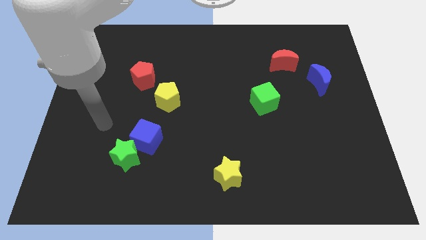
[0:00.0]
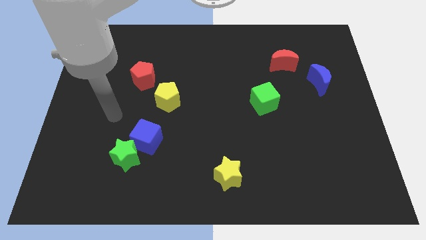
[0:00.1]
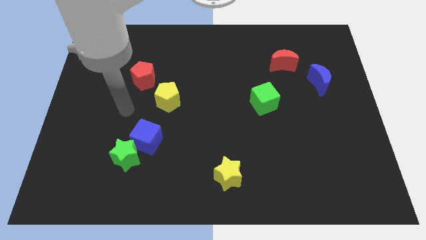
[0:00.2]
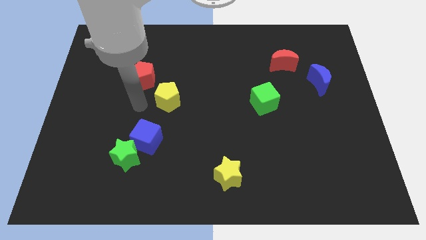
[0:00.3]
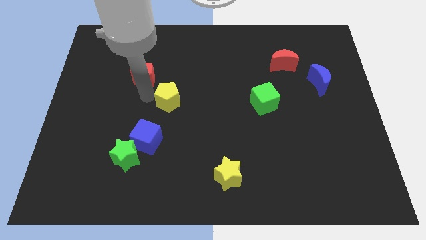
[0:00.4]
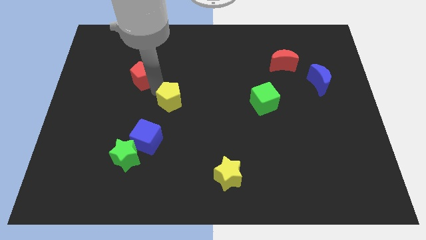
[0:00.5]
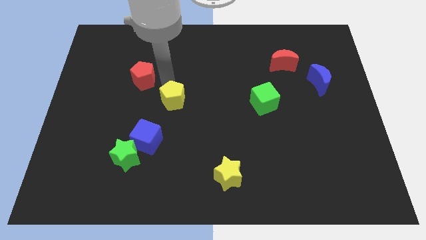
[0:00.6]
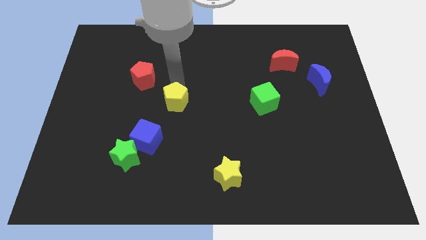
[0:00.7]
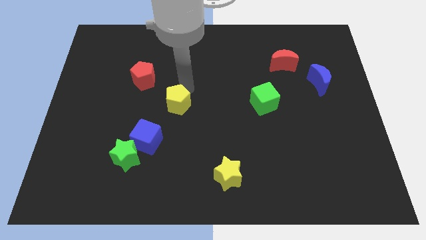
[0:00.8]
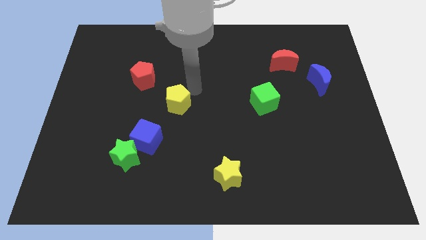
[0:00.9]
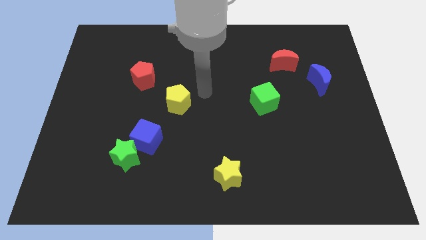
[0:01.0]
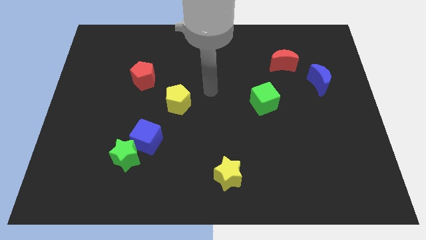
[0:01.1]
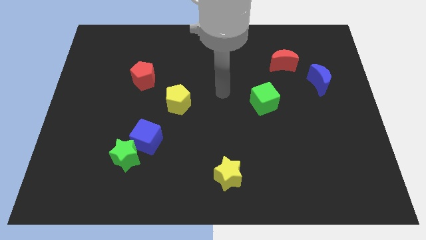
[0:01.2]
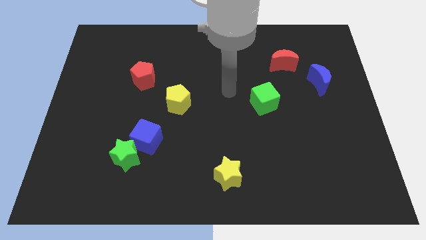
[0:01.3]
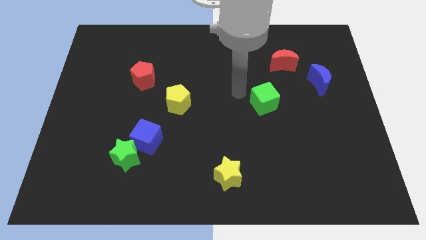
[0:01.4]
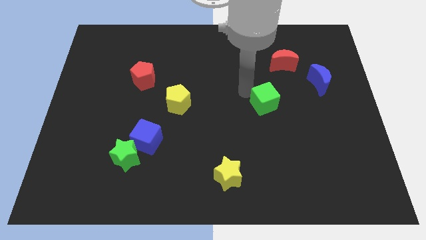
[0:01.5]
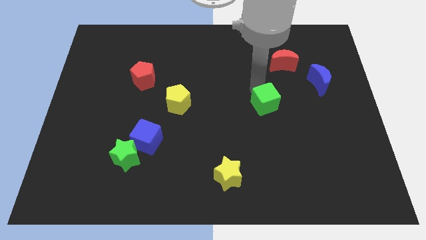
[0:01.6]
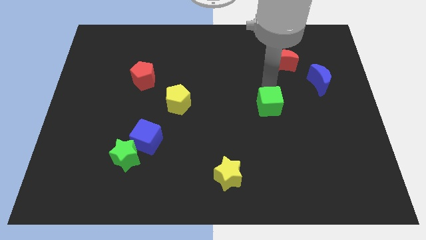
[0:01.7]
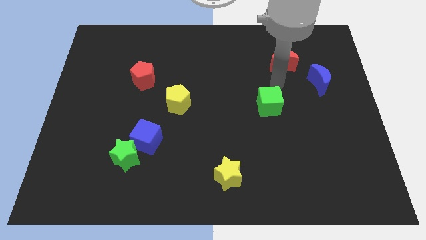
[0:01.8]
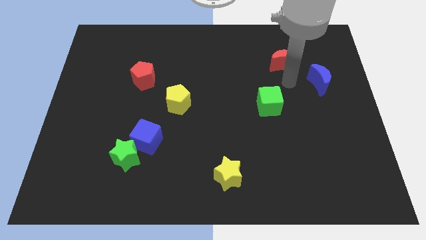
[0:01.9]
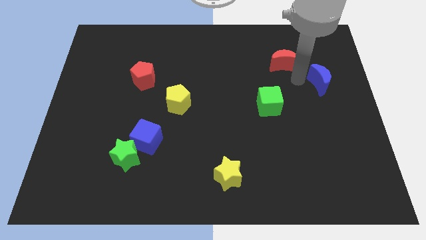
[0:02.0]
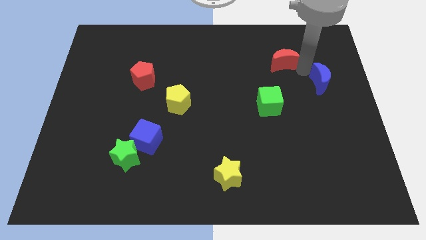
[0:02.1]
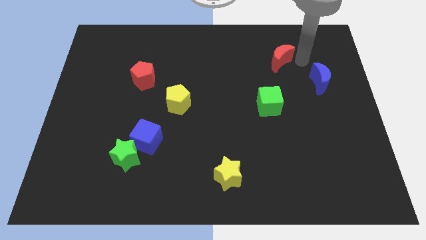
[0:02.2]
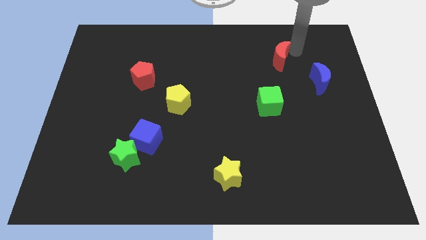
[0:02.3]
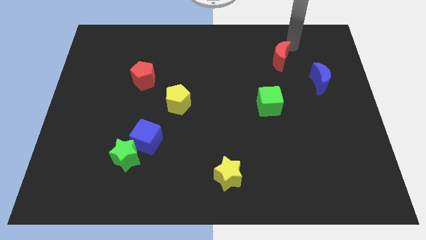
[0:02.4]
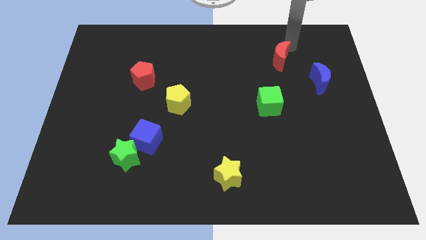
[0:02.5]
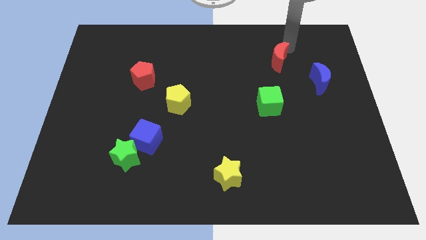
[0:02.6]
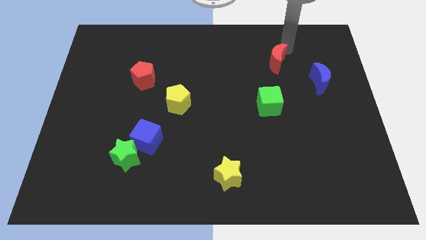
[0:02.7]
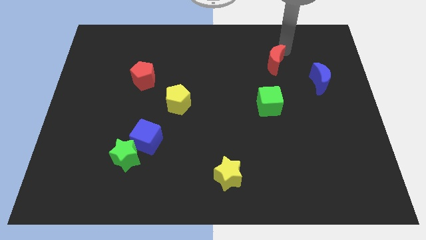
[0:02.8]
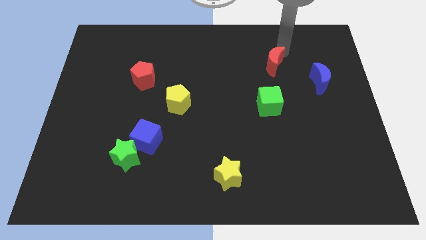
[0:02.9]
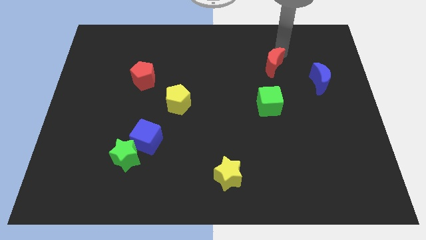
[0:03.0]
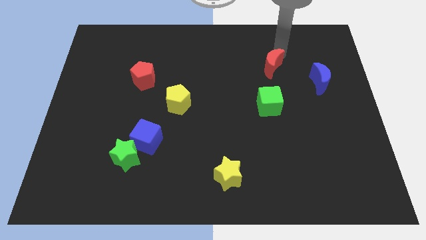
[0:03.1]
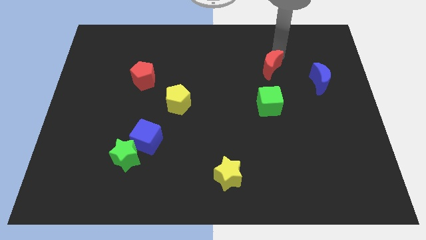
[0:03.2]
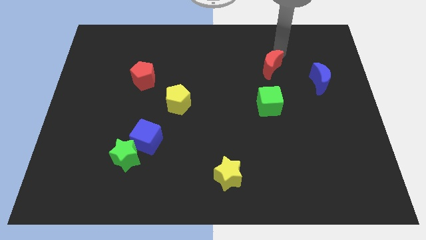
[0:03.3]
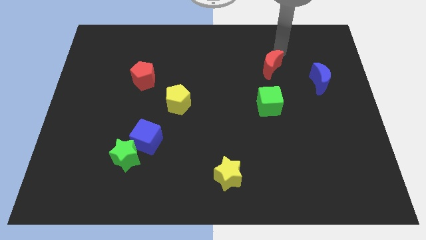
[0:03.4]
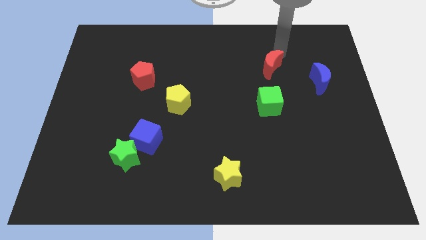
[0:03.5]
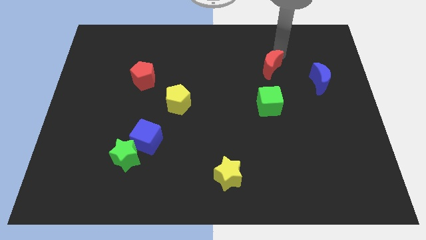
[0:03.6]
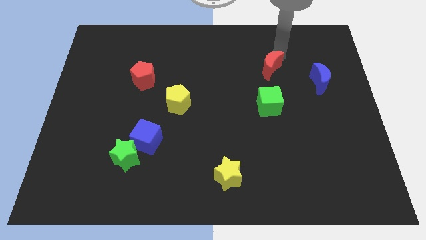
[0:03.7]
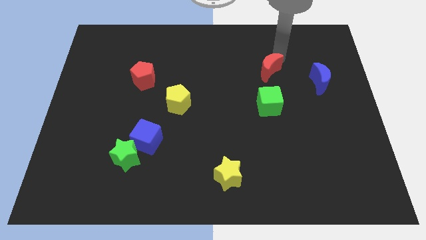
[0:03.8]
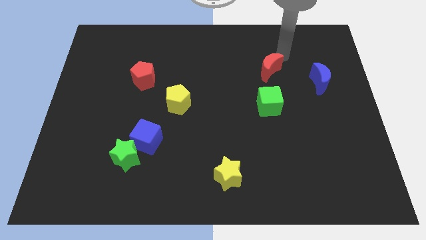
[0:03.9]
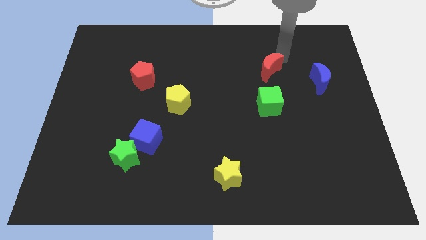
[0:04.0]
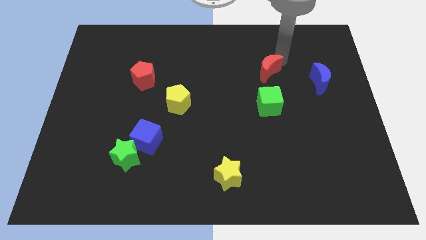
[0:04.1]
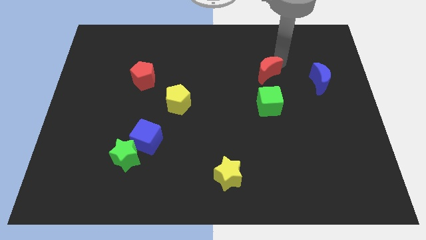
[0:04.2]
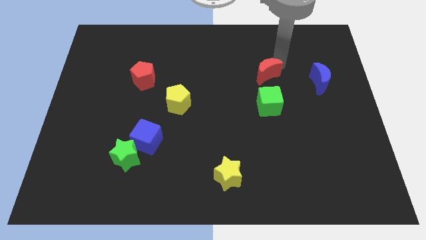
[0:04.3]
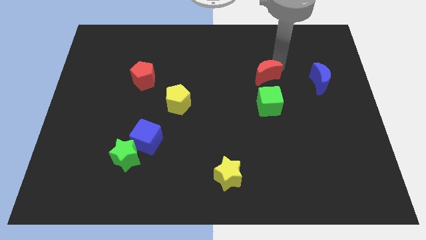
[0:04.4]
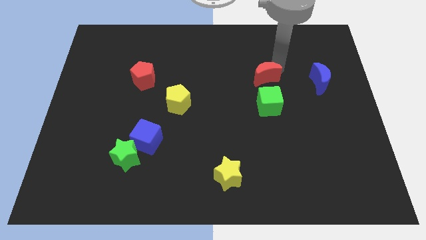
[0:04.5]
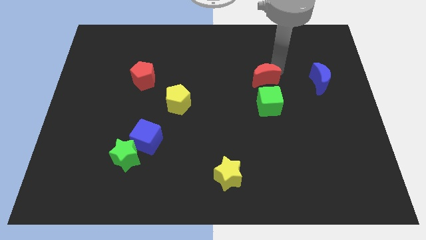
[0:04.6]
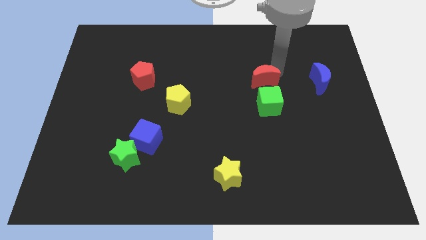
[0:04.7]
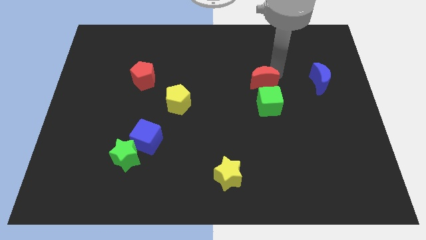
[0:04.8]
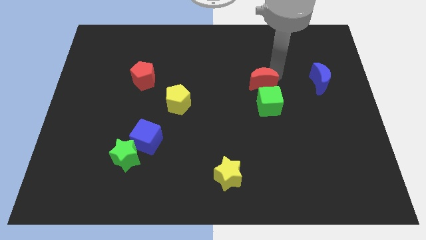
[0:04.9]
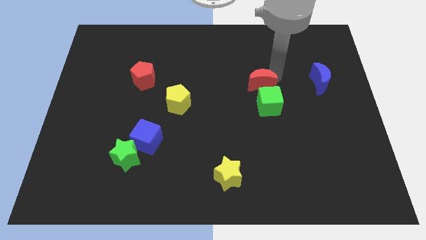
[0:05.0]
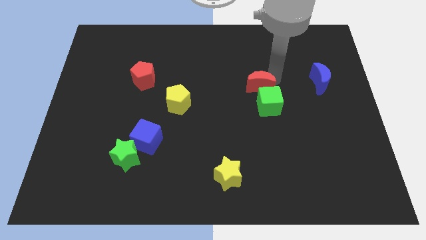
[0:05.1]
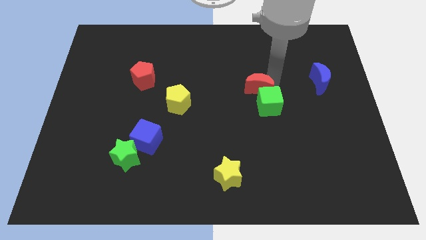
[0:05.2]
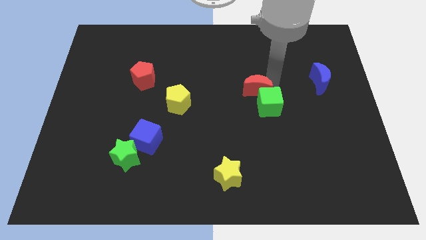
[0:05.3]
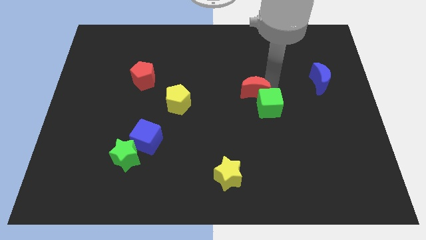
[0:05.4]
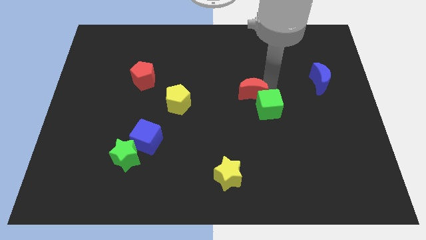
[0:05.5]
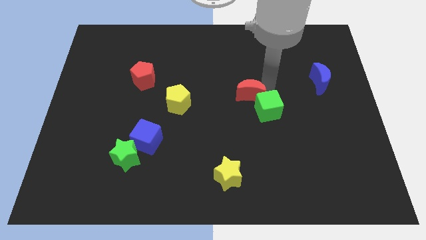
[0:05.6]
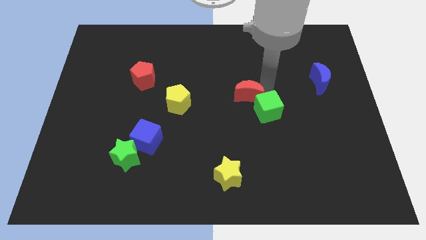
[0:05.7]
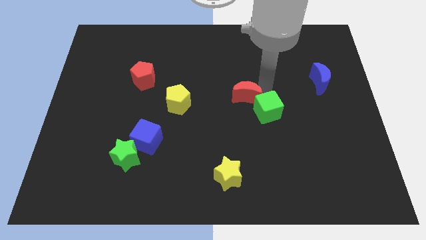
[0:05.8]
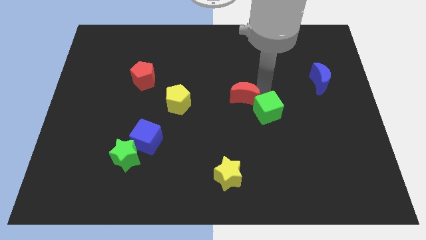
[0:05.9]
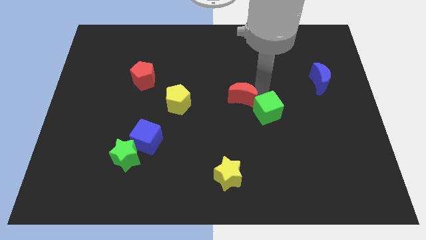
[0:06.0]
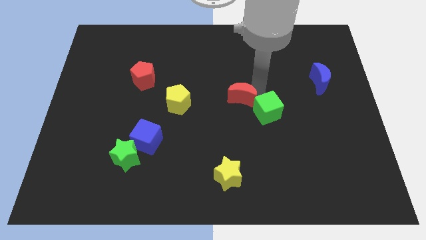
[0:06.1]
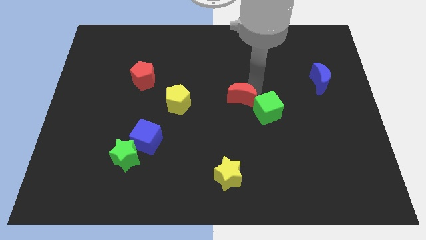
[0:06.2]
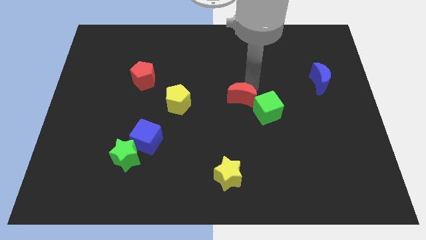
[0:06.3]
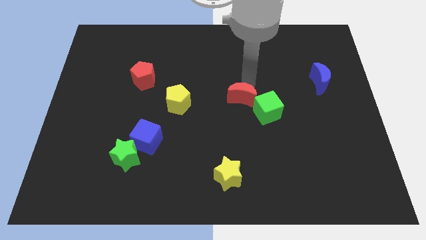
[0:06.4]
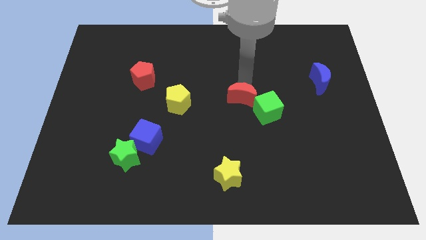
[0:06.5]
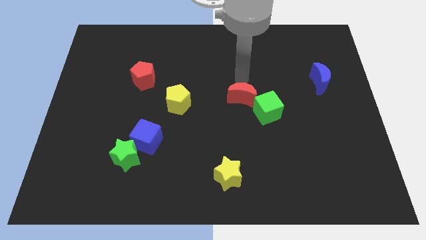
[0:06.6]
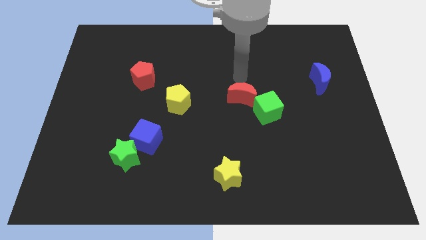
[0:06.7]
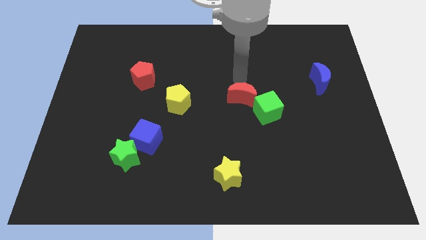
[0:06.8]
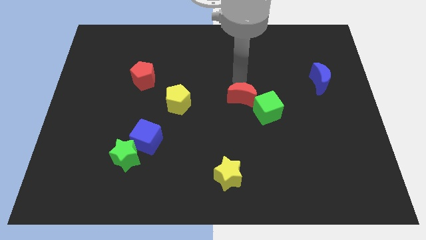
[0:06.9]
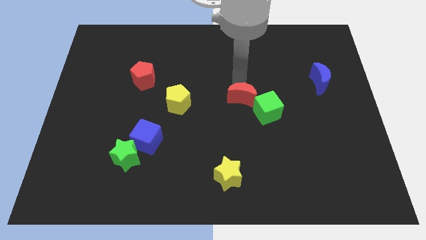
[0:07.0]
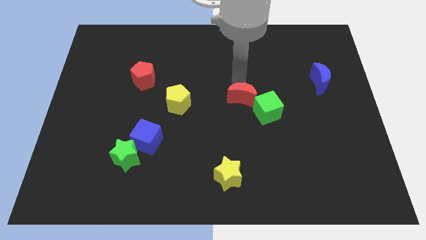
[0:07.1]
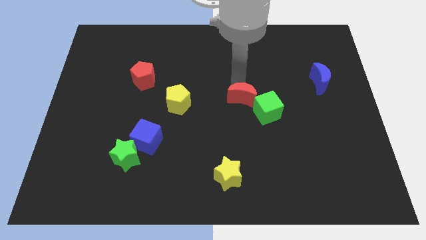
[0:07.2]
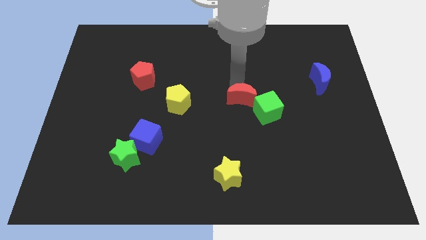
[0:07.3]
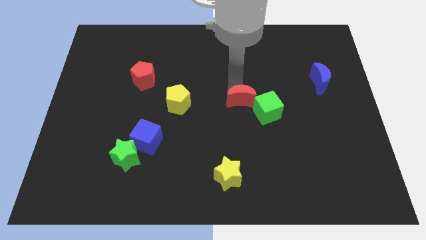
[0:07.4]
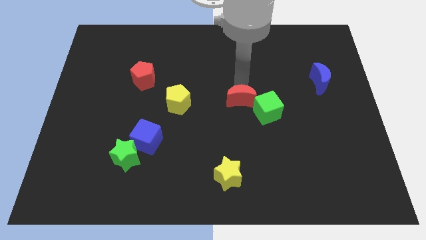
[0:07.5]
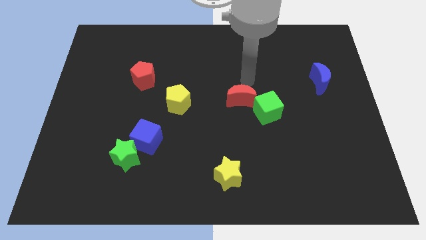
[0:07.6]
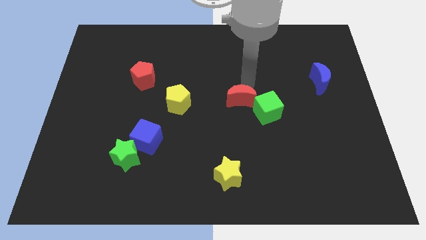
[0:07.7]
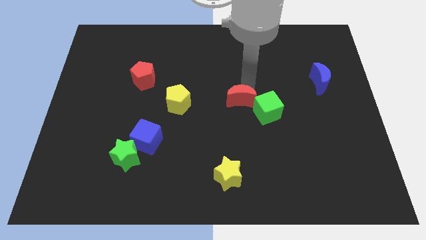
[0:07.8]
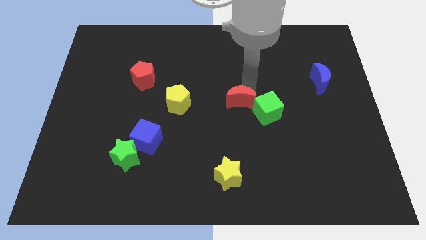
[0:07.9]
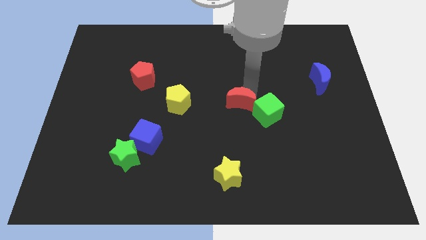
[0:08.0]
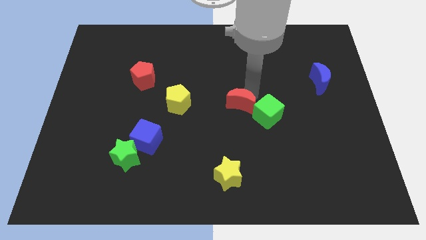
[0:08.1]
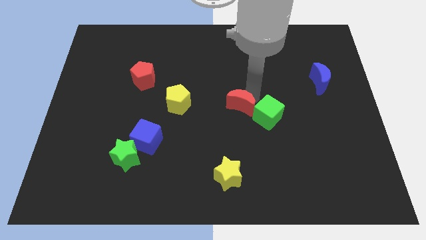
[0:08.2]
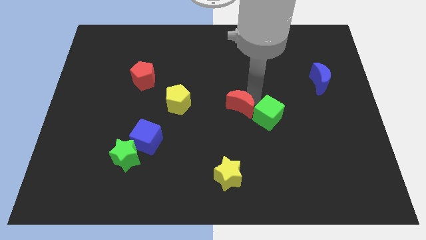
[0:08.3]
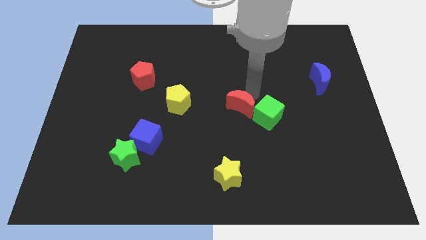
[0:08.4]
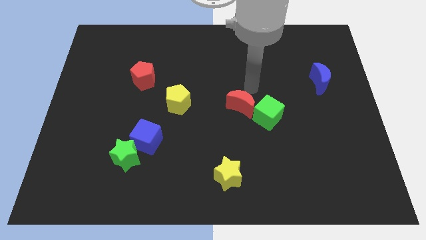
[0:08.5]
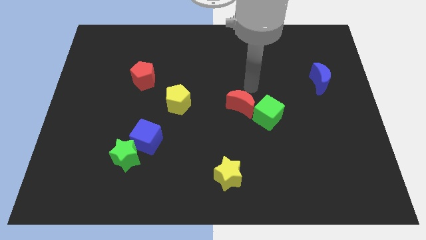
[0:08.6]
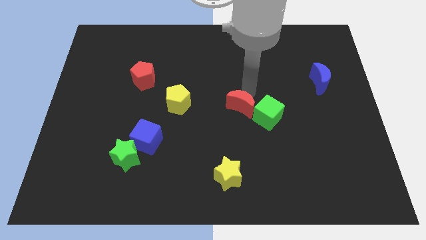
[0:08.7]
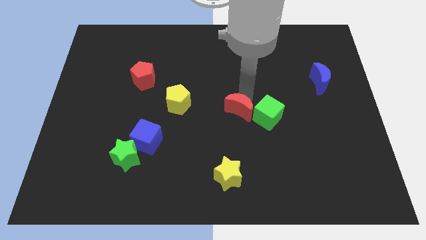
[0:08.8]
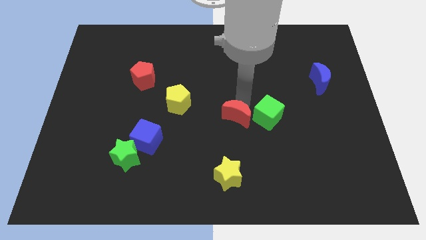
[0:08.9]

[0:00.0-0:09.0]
move the red moon to the top side of the yellow star
